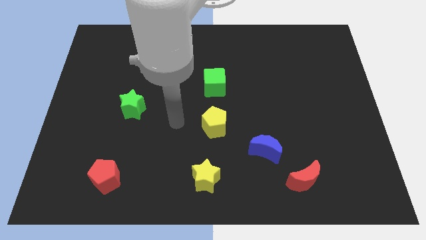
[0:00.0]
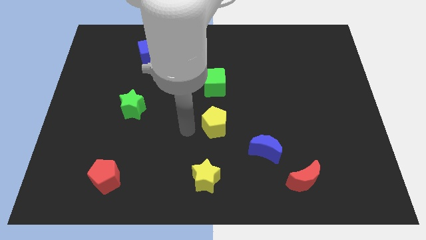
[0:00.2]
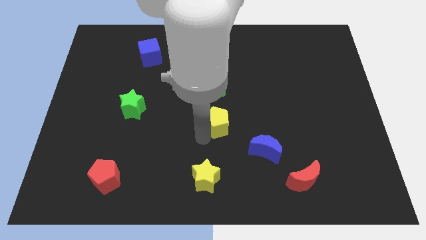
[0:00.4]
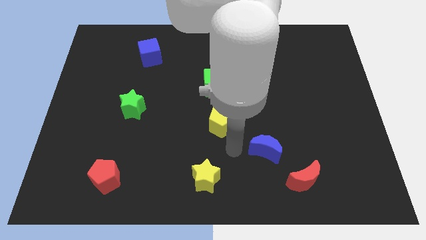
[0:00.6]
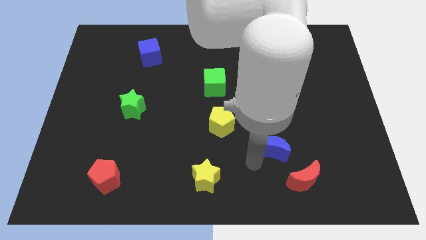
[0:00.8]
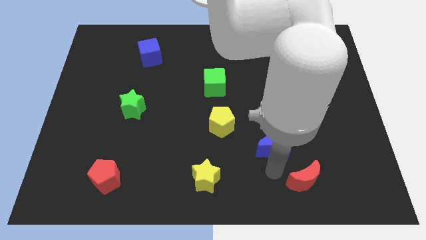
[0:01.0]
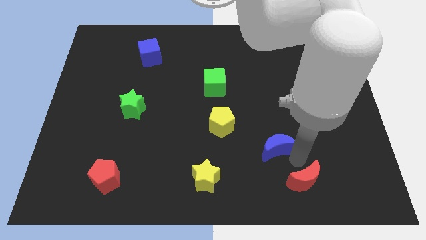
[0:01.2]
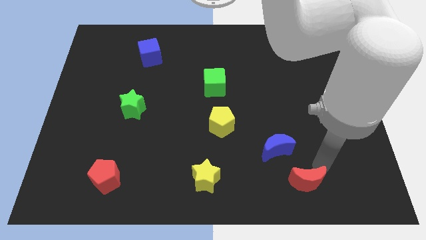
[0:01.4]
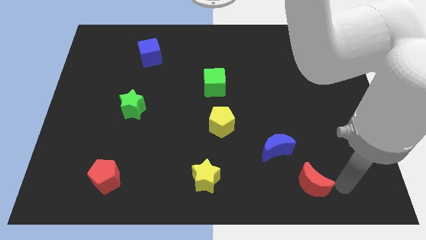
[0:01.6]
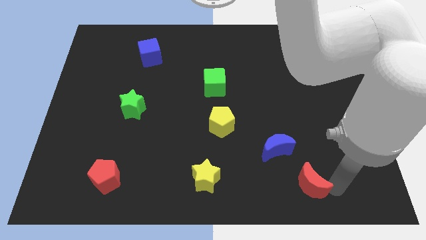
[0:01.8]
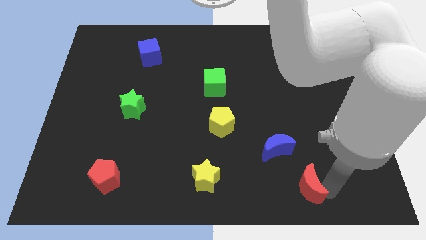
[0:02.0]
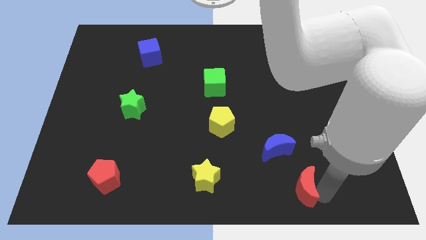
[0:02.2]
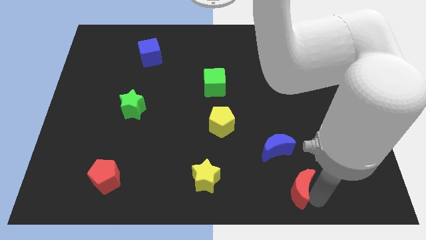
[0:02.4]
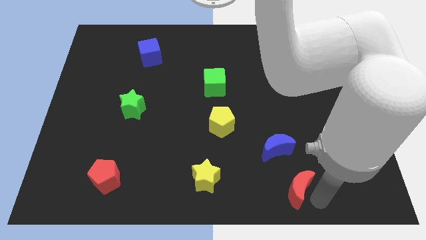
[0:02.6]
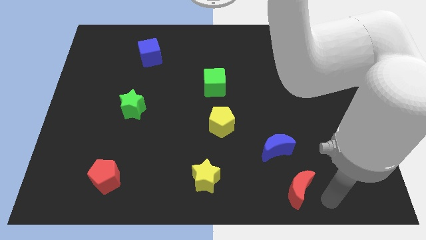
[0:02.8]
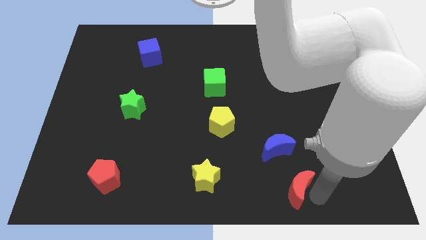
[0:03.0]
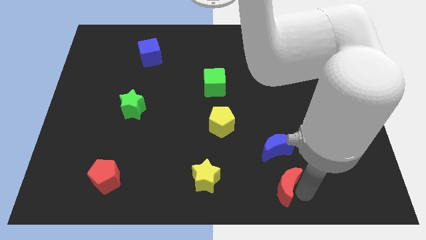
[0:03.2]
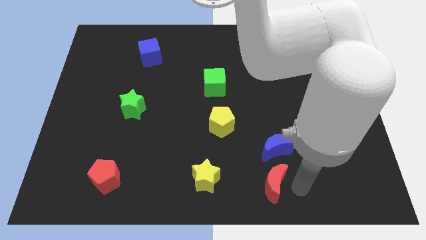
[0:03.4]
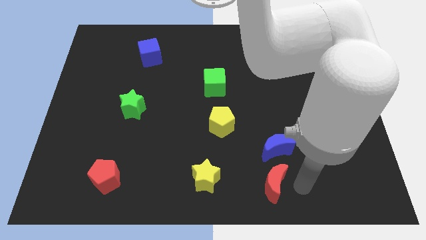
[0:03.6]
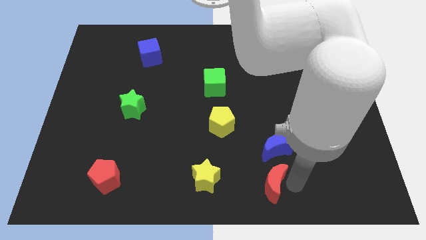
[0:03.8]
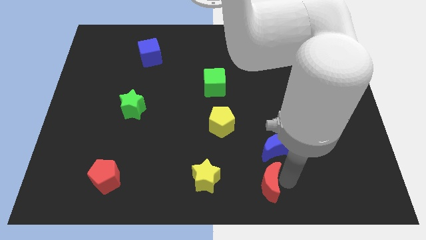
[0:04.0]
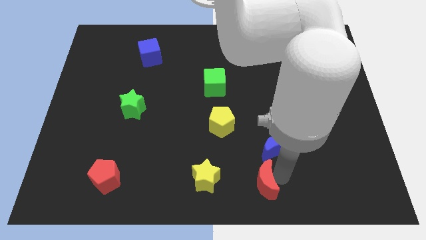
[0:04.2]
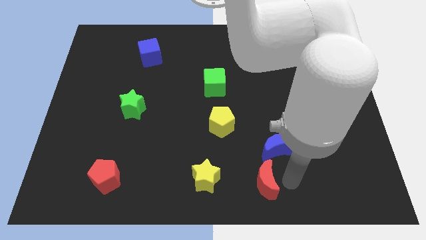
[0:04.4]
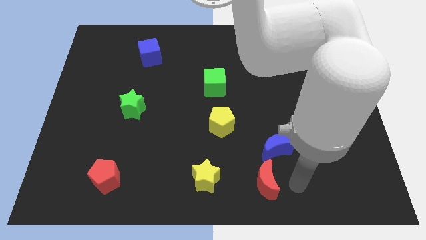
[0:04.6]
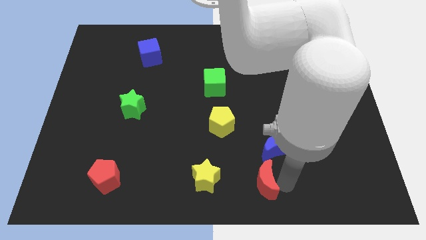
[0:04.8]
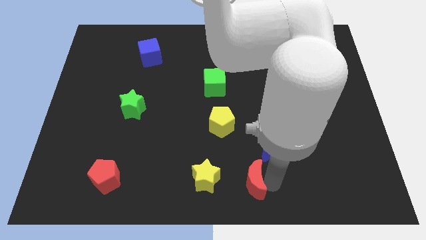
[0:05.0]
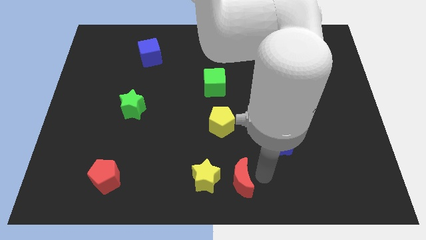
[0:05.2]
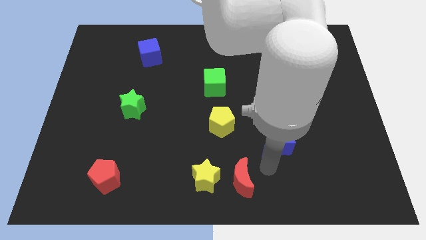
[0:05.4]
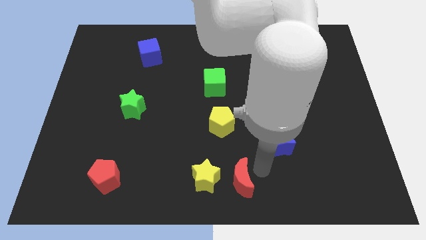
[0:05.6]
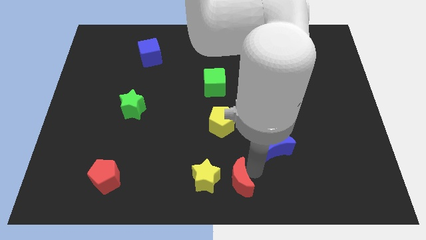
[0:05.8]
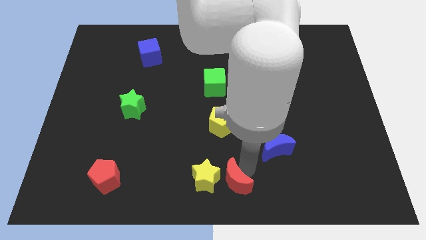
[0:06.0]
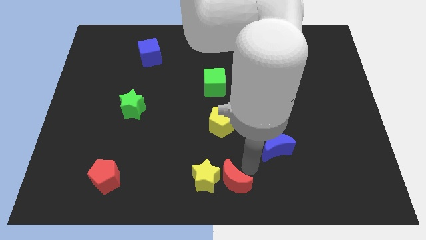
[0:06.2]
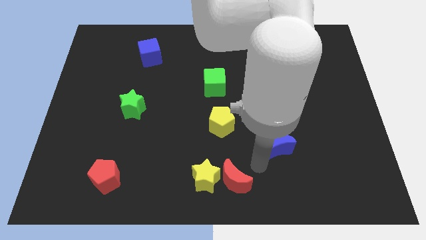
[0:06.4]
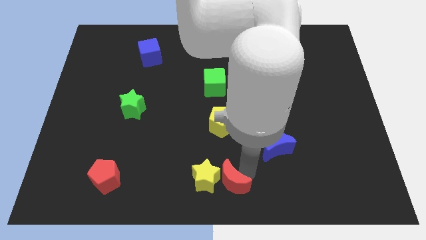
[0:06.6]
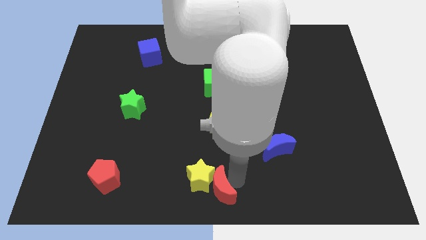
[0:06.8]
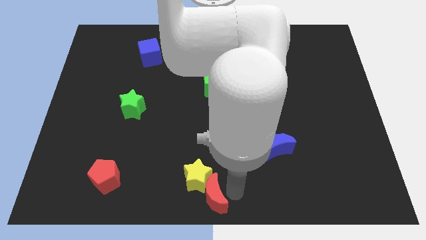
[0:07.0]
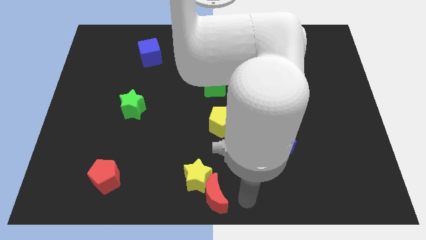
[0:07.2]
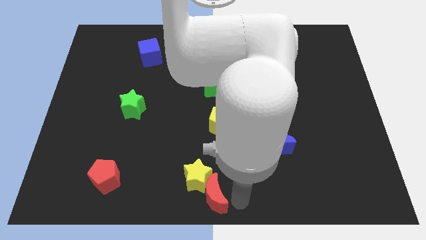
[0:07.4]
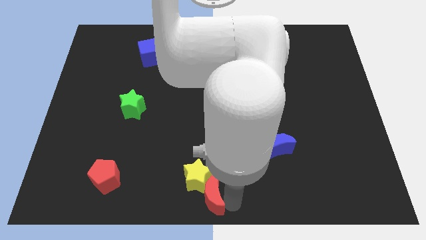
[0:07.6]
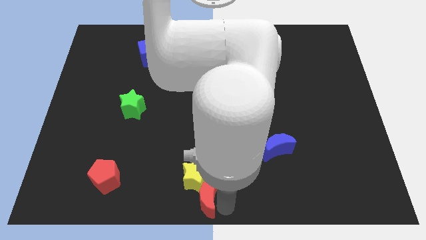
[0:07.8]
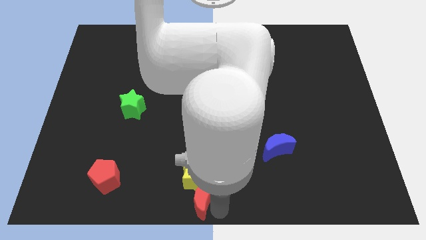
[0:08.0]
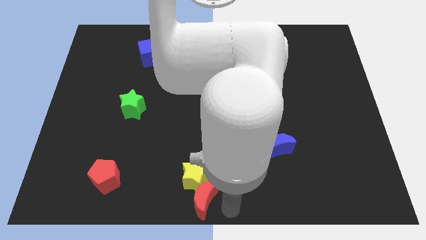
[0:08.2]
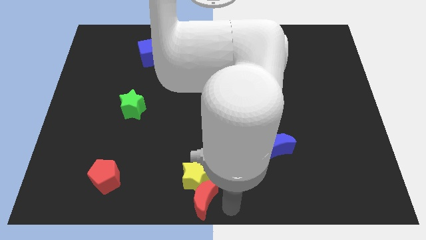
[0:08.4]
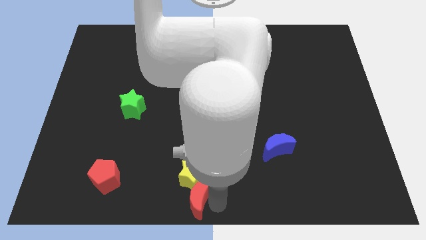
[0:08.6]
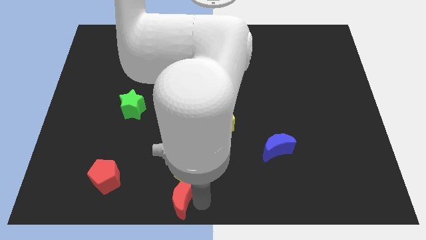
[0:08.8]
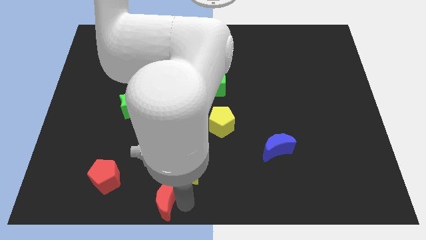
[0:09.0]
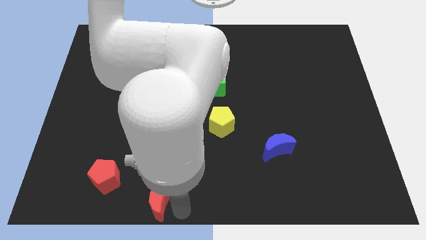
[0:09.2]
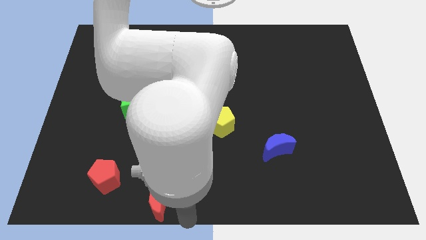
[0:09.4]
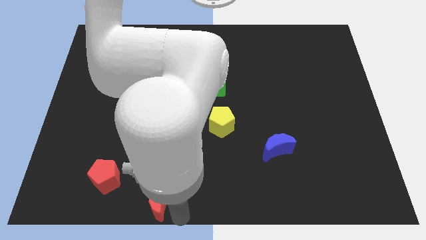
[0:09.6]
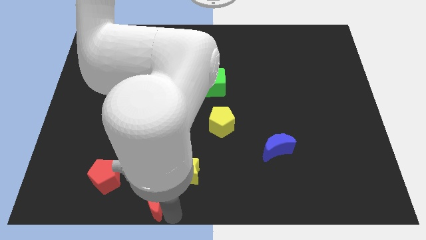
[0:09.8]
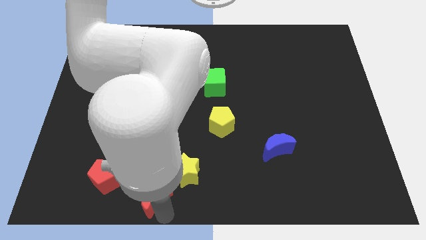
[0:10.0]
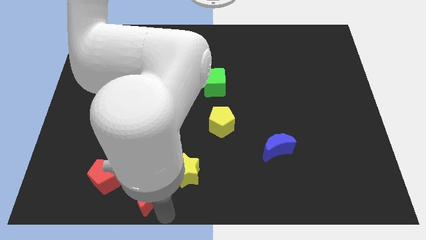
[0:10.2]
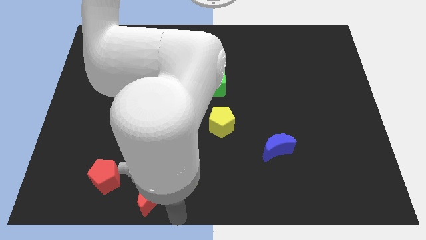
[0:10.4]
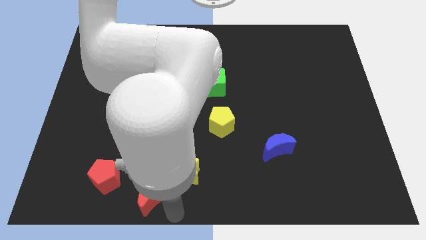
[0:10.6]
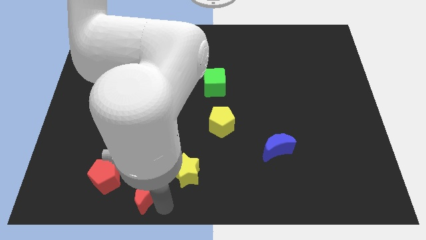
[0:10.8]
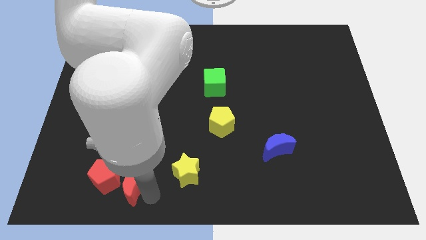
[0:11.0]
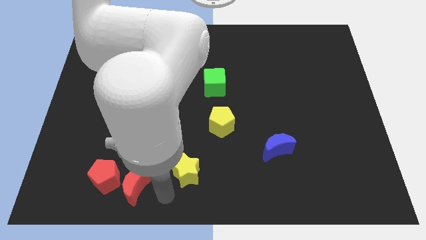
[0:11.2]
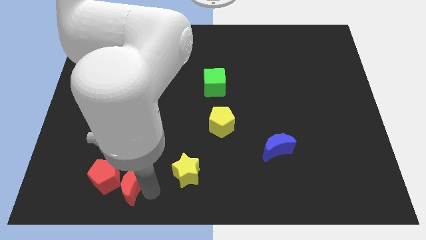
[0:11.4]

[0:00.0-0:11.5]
slide the red moon next to the red pentagon

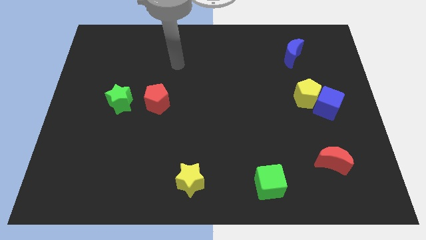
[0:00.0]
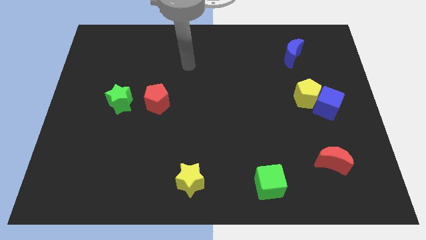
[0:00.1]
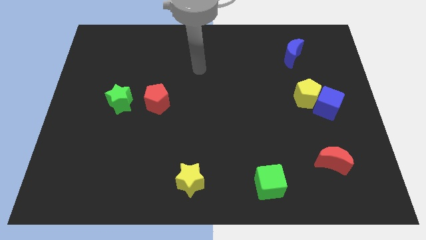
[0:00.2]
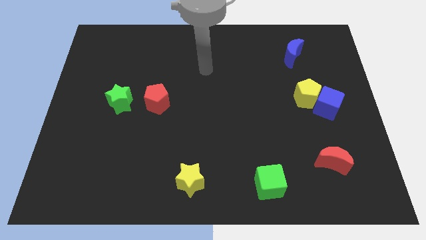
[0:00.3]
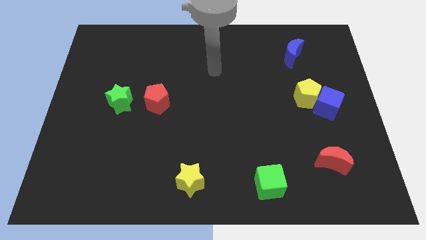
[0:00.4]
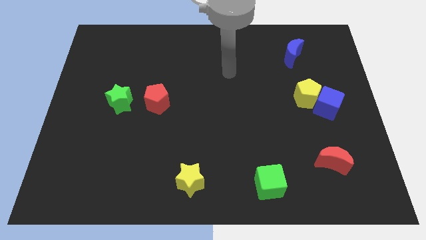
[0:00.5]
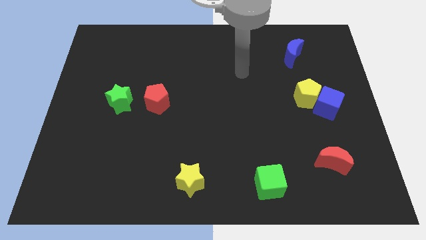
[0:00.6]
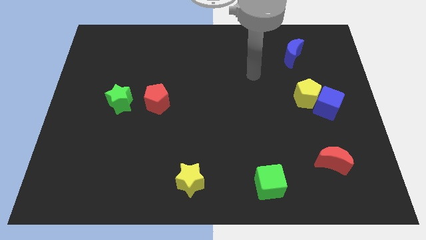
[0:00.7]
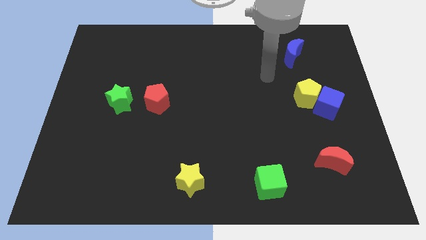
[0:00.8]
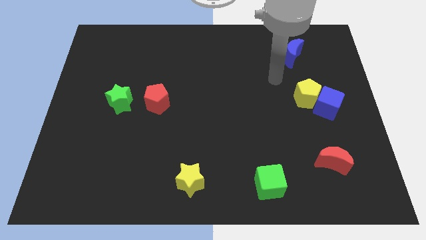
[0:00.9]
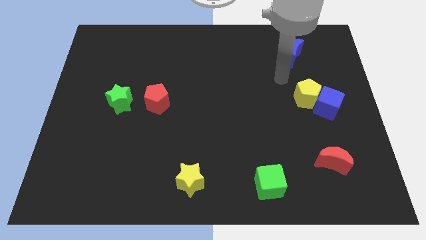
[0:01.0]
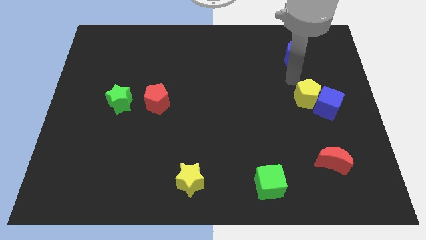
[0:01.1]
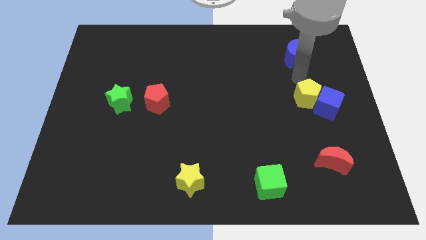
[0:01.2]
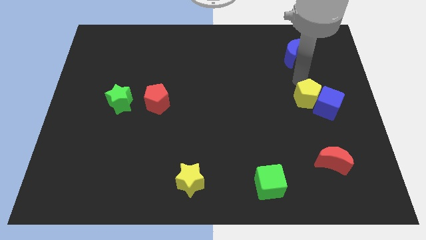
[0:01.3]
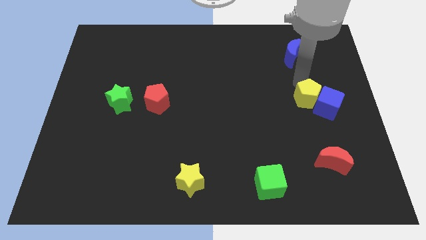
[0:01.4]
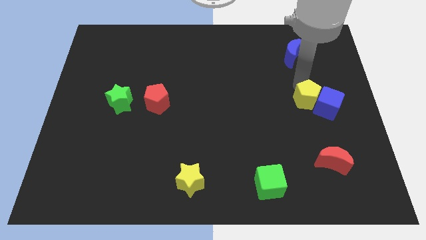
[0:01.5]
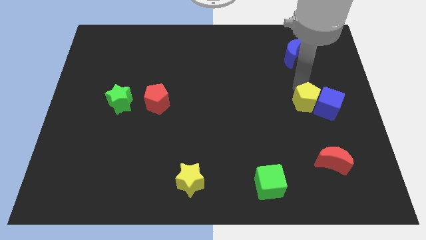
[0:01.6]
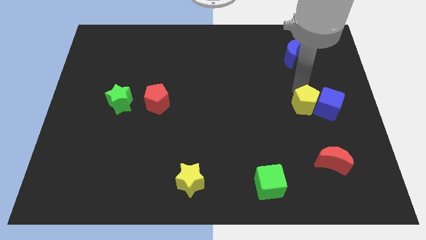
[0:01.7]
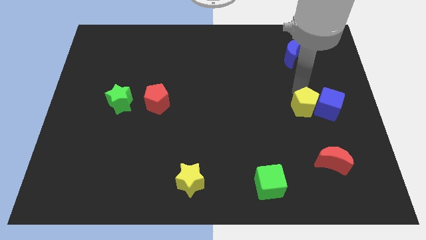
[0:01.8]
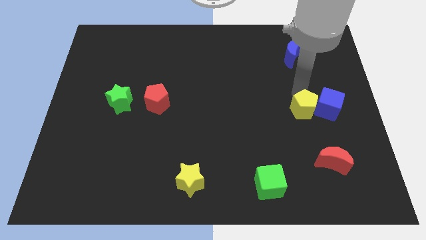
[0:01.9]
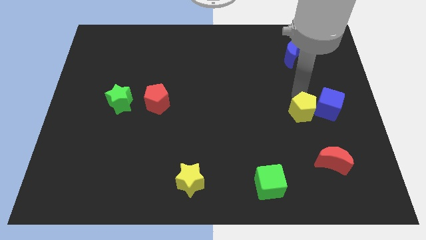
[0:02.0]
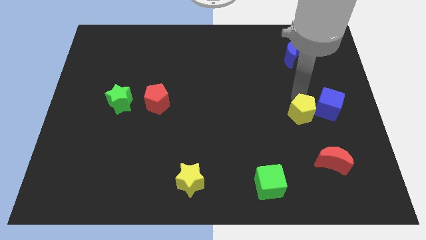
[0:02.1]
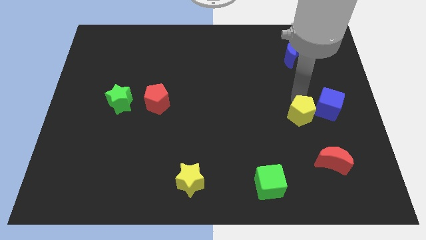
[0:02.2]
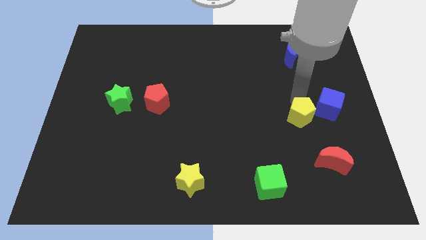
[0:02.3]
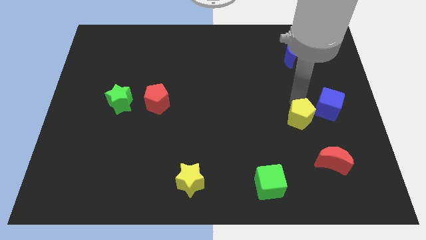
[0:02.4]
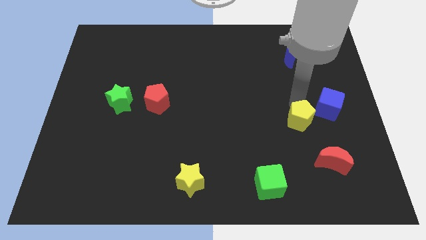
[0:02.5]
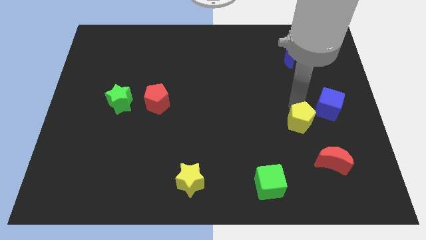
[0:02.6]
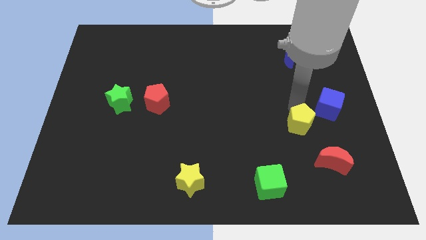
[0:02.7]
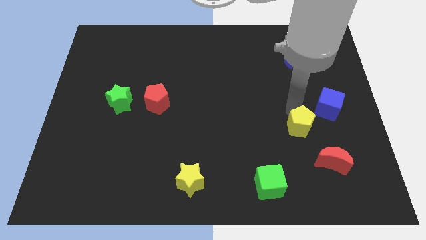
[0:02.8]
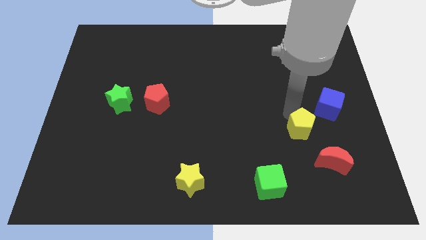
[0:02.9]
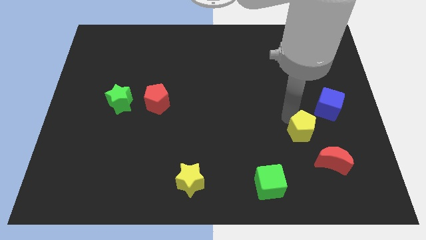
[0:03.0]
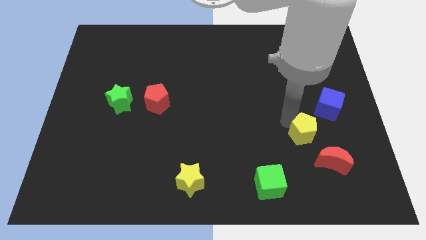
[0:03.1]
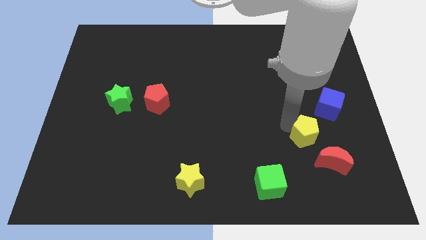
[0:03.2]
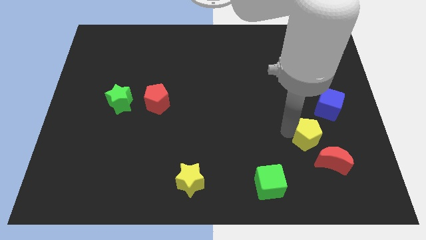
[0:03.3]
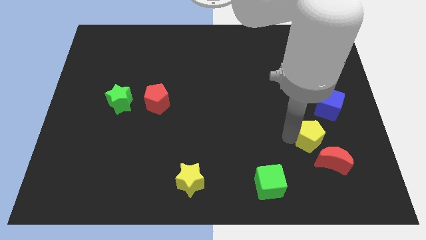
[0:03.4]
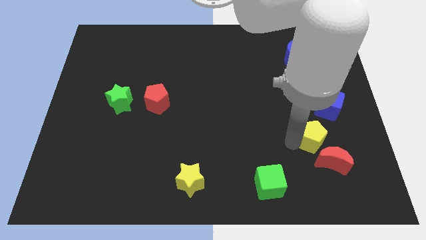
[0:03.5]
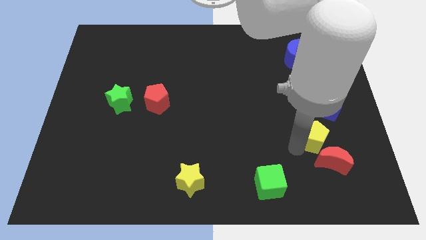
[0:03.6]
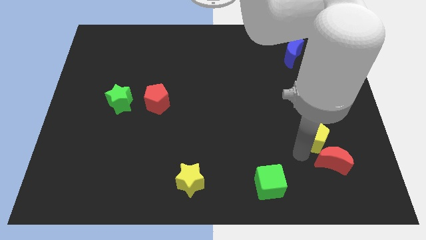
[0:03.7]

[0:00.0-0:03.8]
move the yellow pentagon close to the red moon
